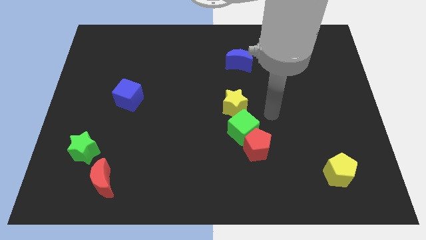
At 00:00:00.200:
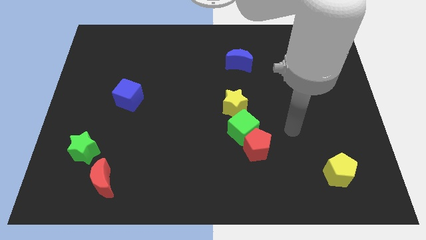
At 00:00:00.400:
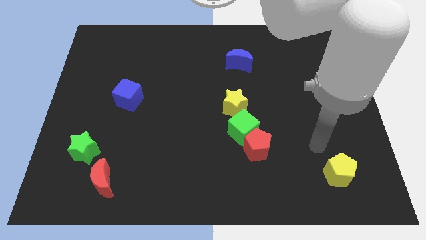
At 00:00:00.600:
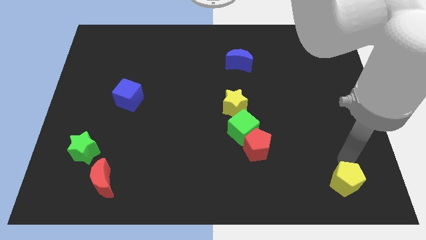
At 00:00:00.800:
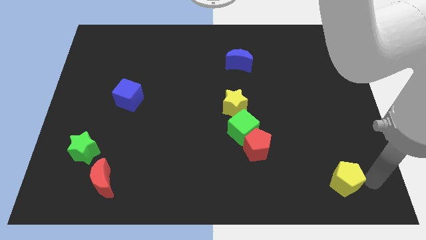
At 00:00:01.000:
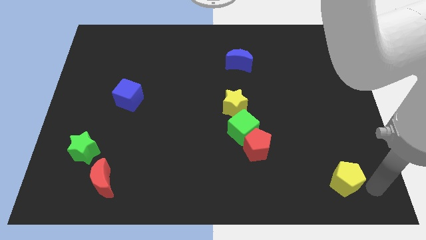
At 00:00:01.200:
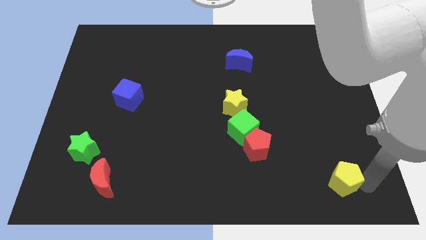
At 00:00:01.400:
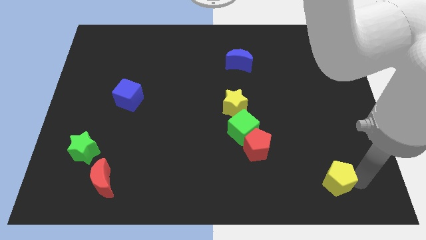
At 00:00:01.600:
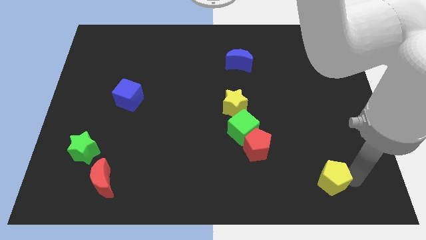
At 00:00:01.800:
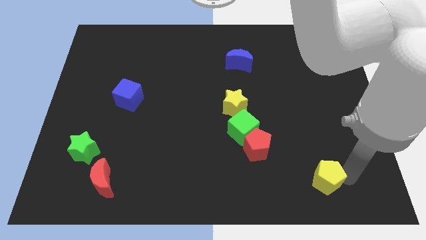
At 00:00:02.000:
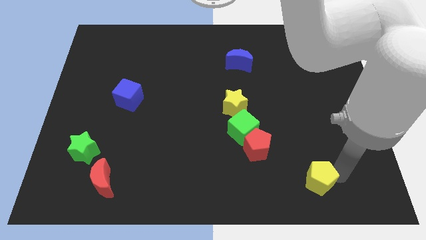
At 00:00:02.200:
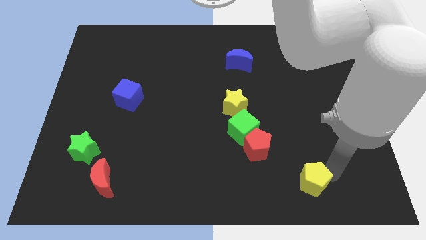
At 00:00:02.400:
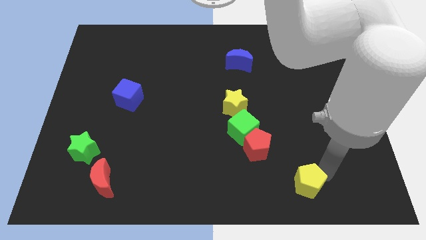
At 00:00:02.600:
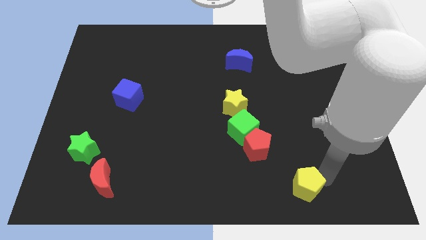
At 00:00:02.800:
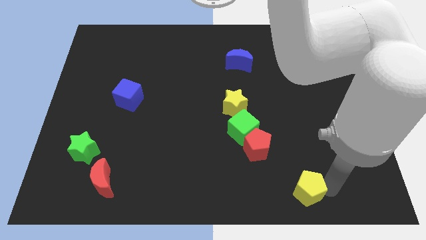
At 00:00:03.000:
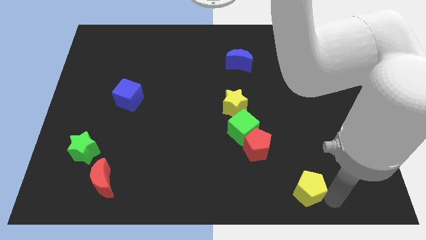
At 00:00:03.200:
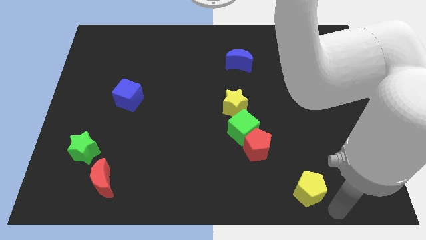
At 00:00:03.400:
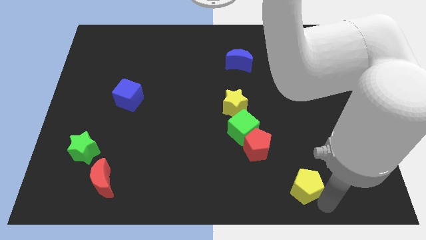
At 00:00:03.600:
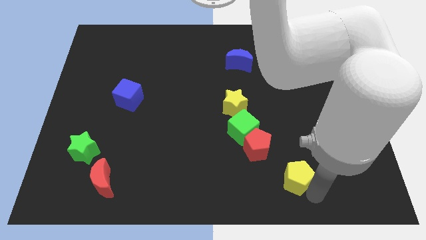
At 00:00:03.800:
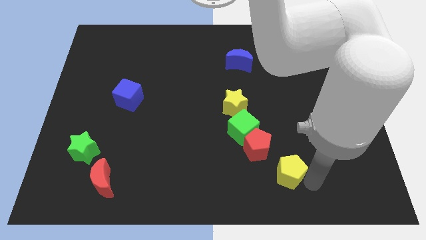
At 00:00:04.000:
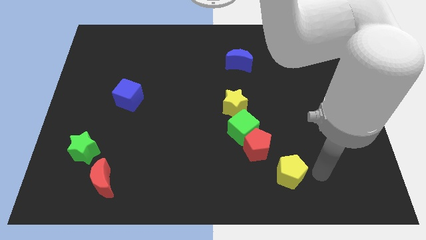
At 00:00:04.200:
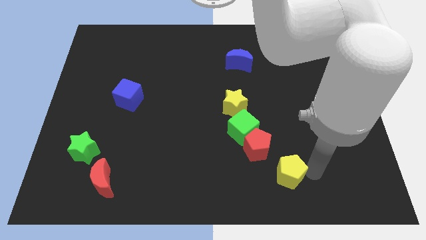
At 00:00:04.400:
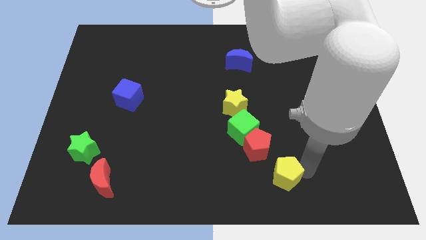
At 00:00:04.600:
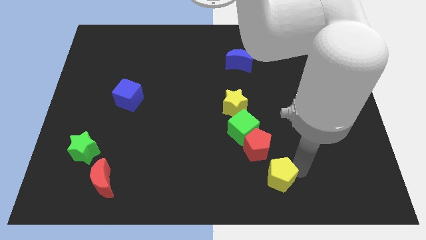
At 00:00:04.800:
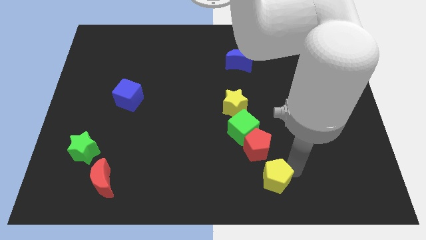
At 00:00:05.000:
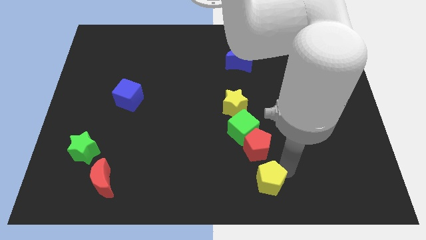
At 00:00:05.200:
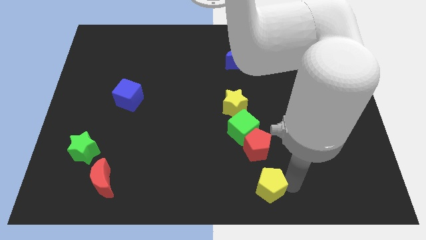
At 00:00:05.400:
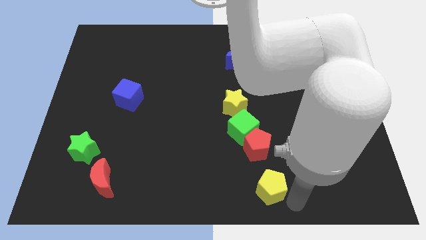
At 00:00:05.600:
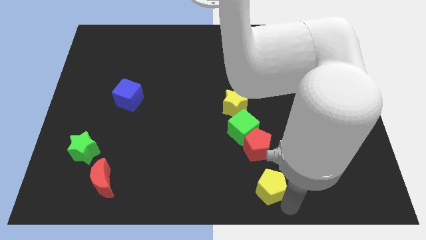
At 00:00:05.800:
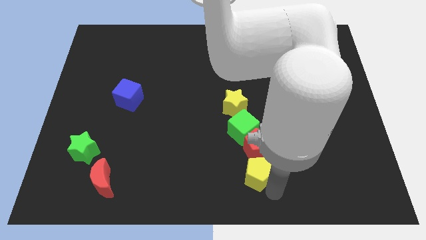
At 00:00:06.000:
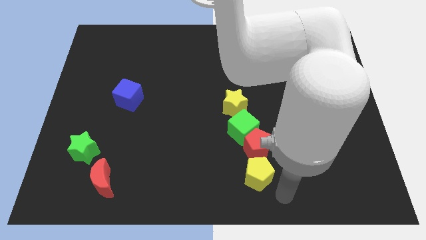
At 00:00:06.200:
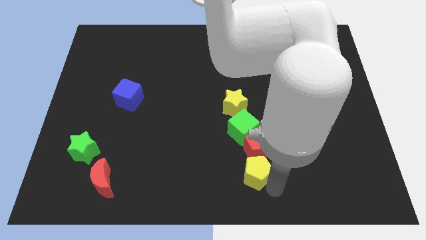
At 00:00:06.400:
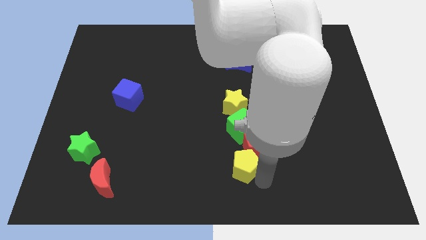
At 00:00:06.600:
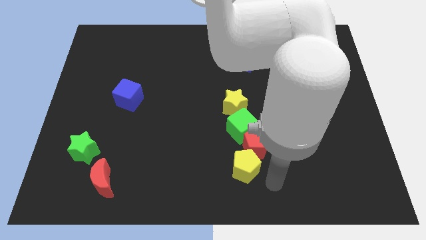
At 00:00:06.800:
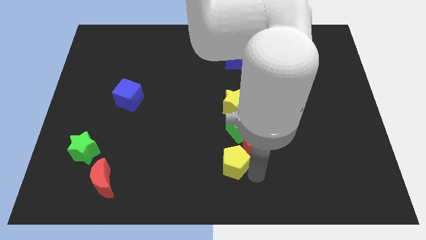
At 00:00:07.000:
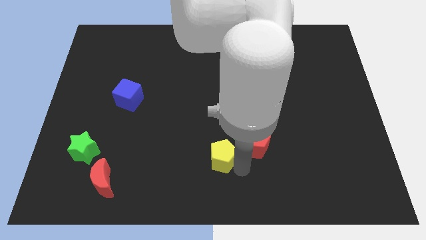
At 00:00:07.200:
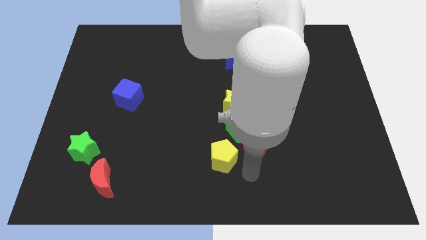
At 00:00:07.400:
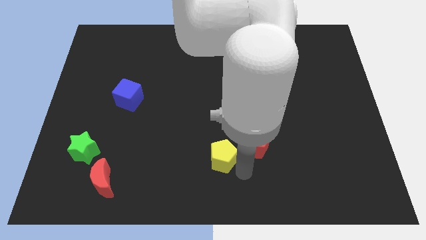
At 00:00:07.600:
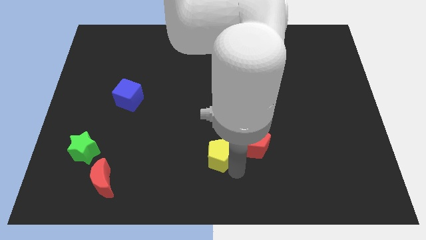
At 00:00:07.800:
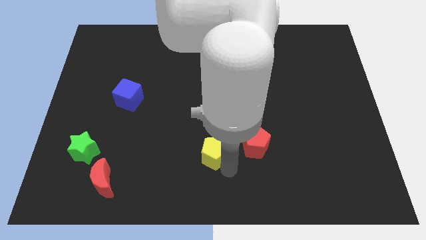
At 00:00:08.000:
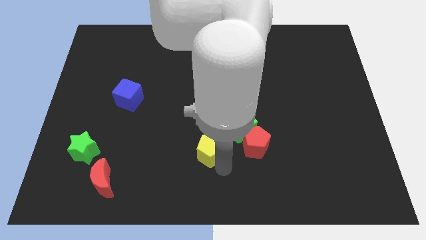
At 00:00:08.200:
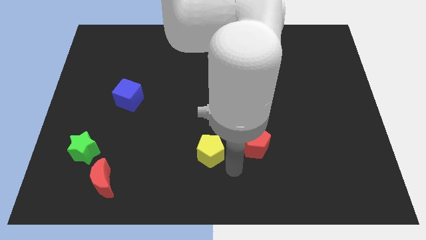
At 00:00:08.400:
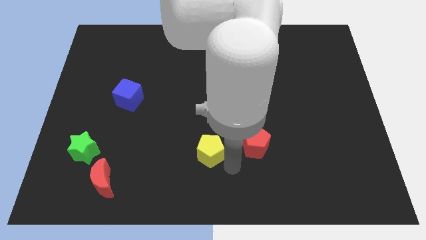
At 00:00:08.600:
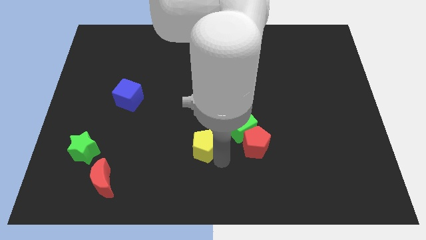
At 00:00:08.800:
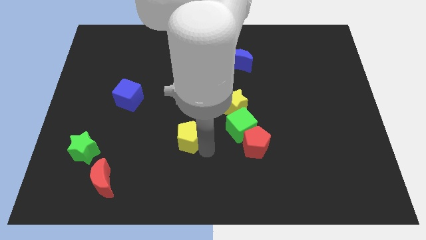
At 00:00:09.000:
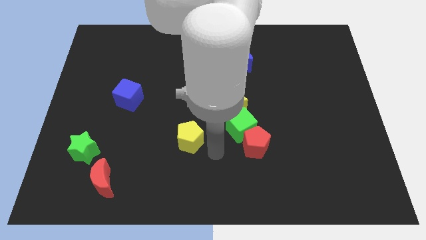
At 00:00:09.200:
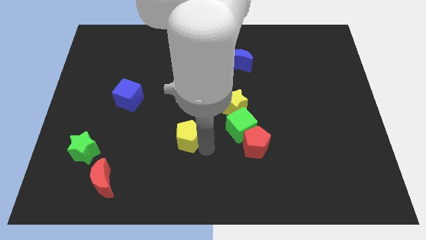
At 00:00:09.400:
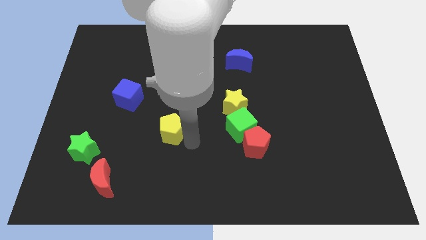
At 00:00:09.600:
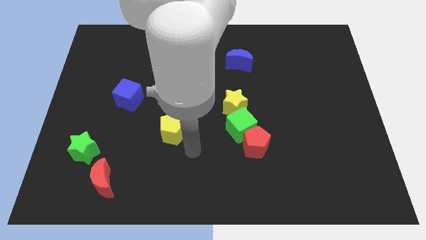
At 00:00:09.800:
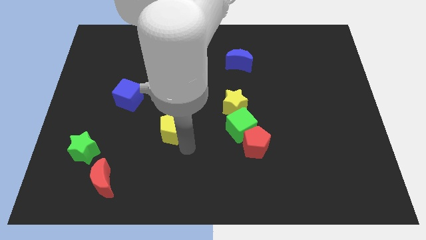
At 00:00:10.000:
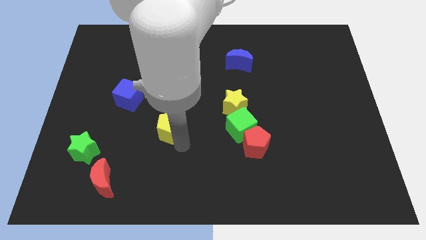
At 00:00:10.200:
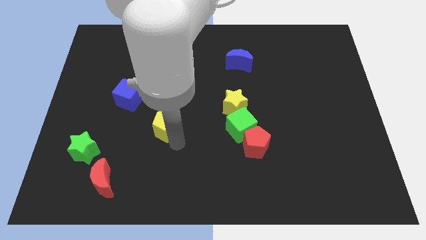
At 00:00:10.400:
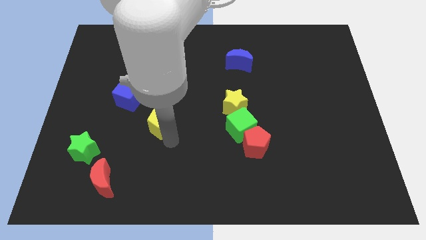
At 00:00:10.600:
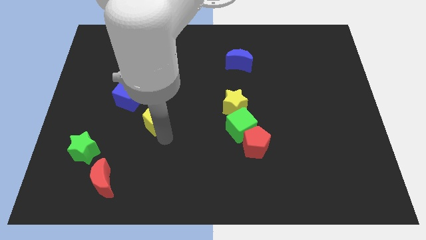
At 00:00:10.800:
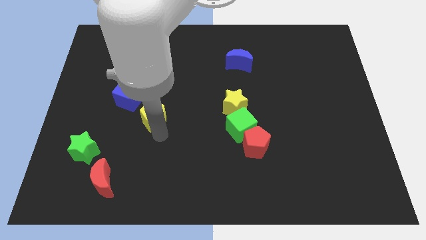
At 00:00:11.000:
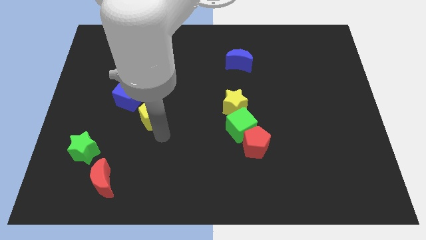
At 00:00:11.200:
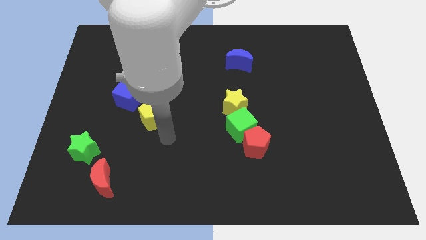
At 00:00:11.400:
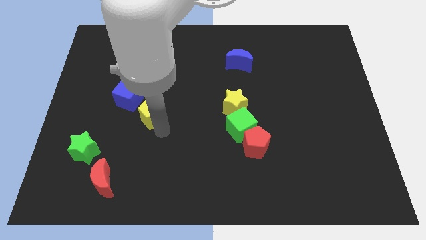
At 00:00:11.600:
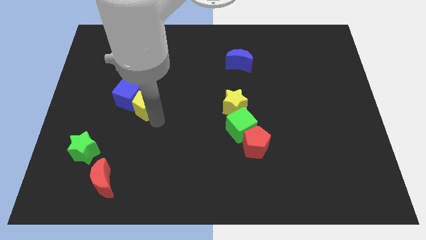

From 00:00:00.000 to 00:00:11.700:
put the yellow pentagon to the blue cube
